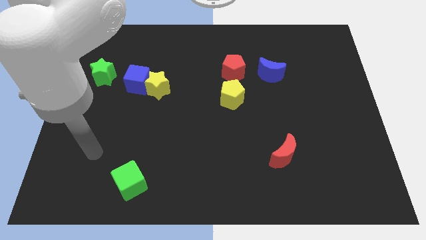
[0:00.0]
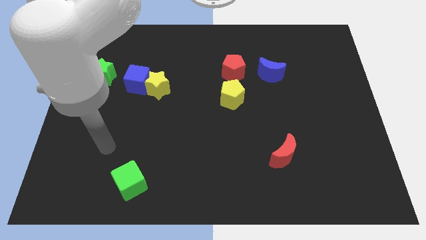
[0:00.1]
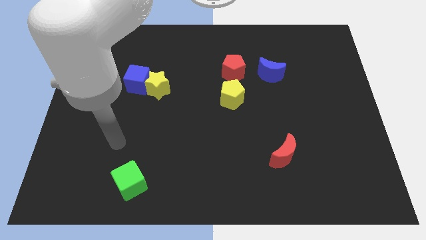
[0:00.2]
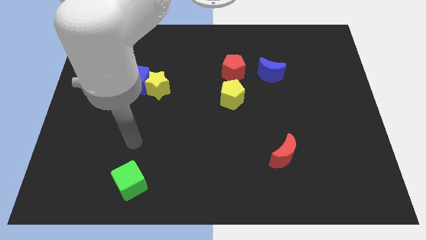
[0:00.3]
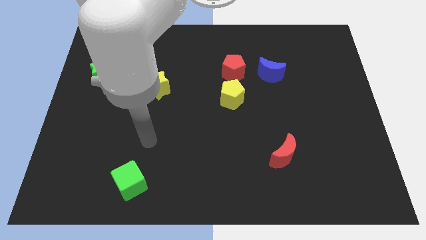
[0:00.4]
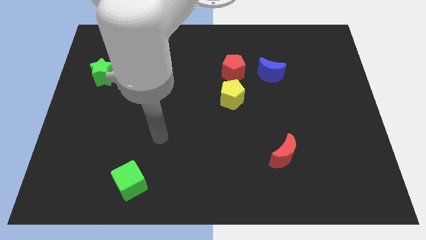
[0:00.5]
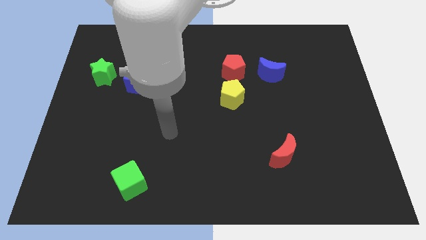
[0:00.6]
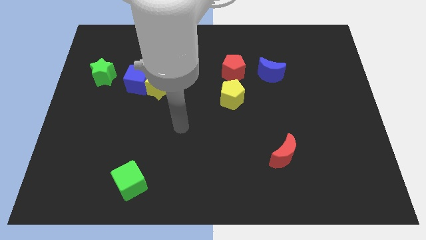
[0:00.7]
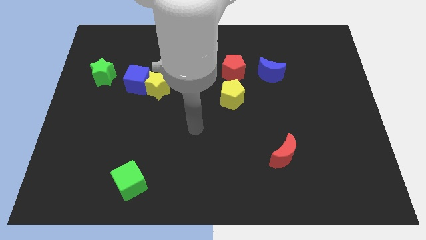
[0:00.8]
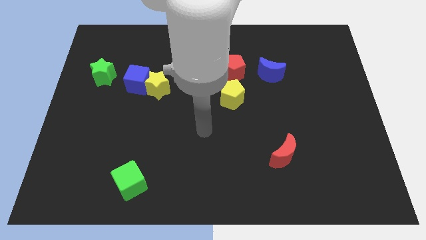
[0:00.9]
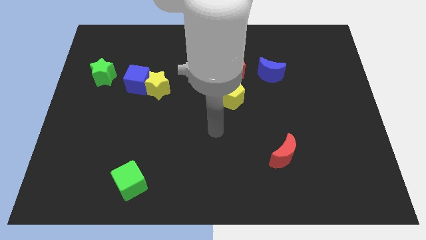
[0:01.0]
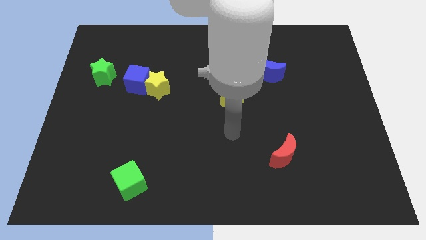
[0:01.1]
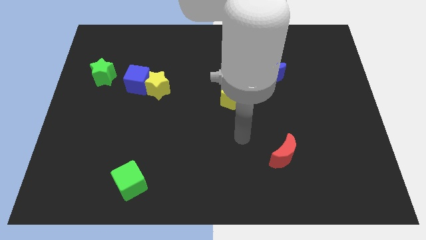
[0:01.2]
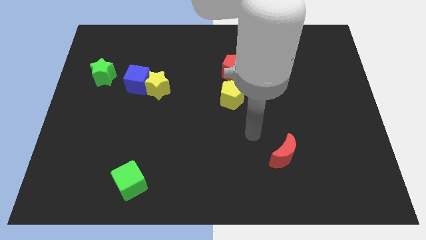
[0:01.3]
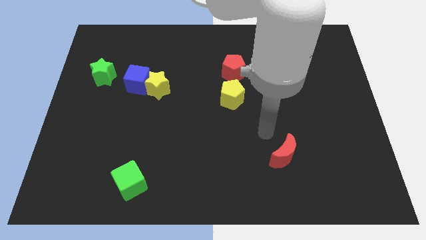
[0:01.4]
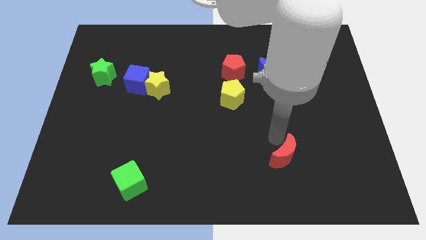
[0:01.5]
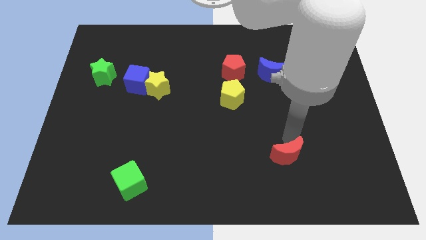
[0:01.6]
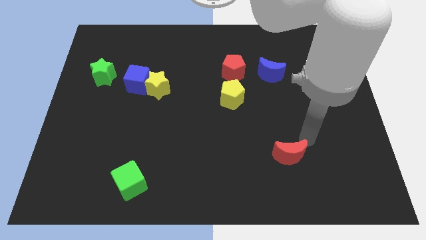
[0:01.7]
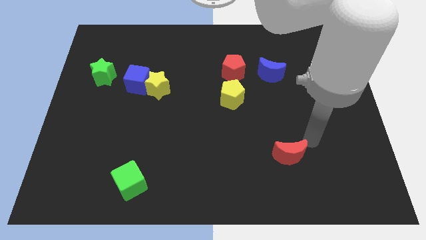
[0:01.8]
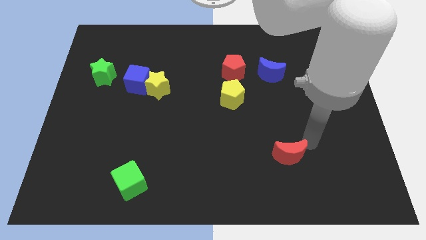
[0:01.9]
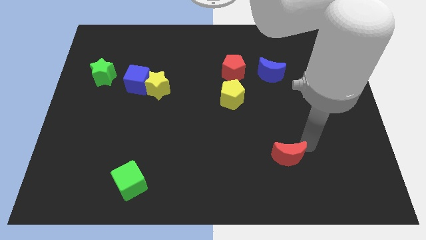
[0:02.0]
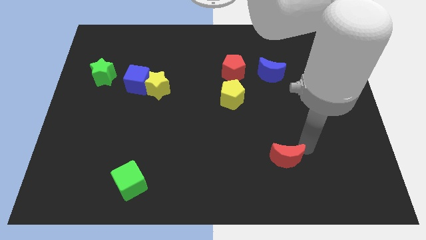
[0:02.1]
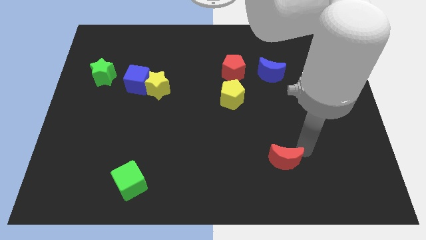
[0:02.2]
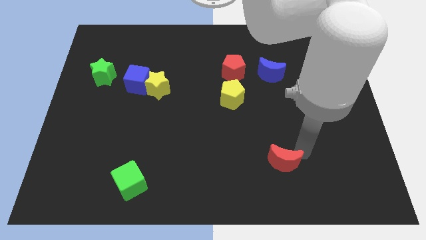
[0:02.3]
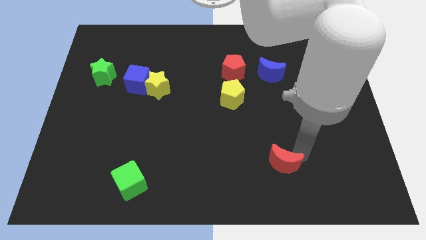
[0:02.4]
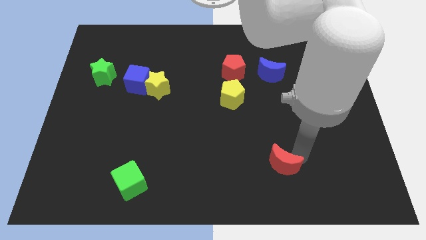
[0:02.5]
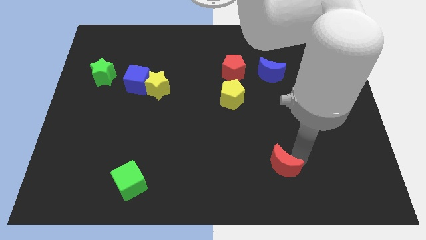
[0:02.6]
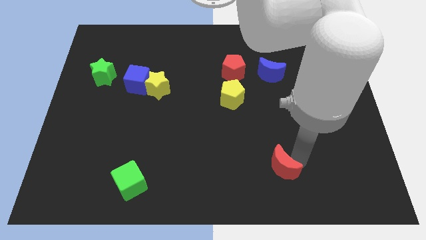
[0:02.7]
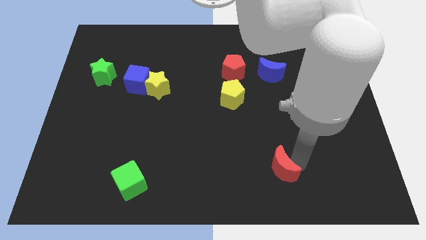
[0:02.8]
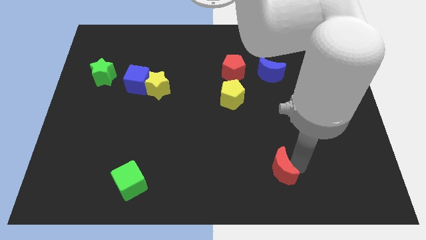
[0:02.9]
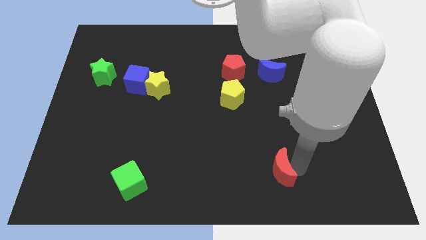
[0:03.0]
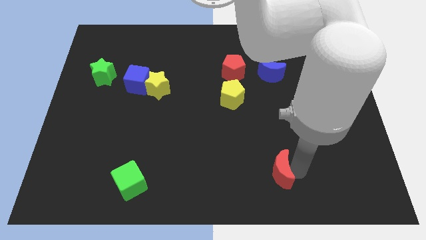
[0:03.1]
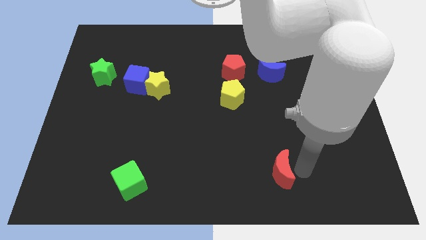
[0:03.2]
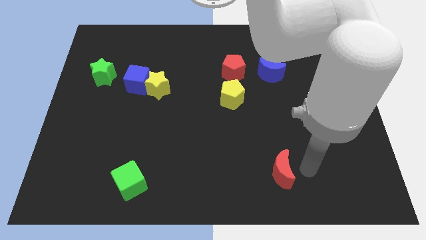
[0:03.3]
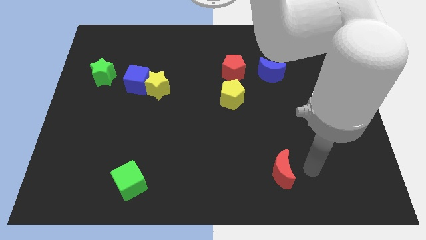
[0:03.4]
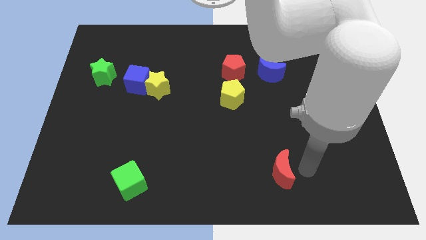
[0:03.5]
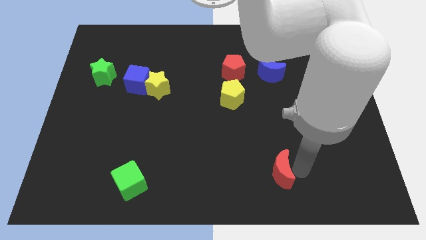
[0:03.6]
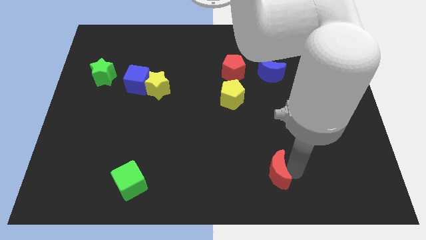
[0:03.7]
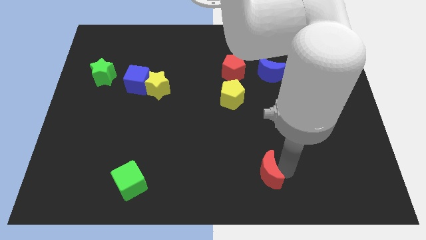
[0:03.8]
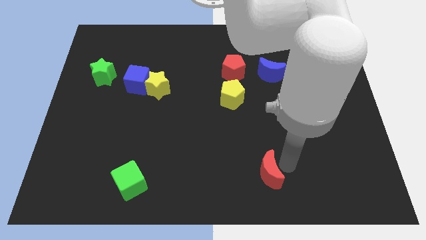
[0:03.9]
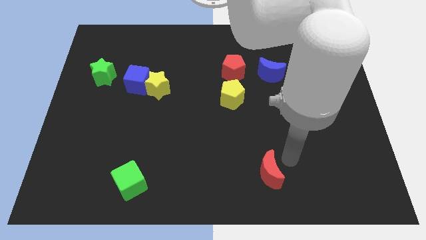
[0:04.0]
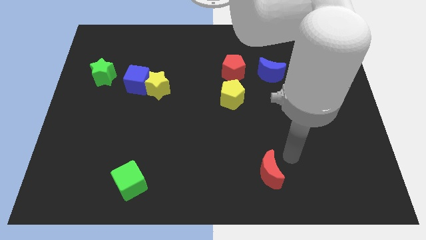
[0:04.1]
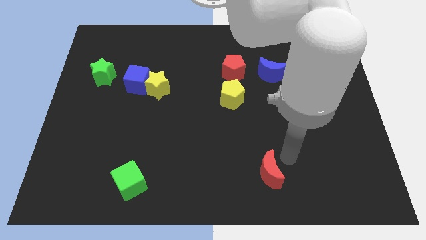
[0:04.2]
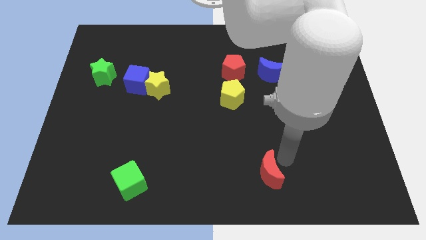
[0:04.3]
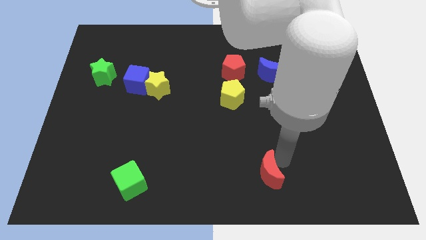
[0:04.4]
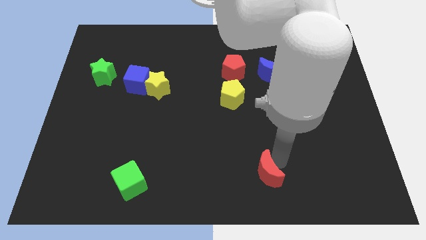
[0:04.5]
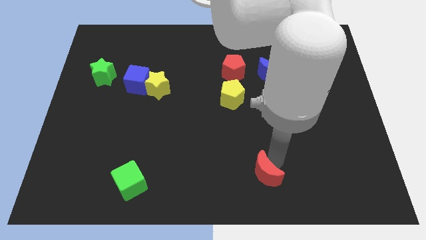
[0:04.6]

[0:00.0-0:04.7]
slide the red moon to the bottom side

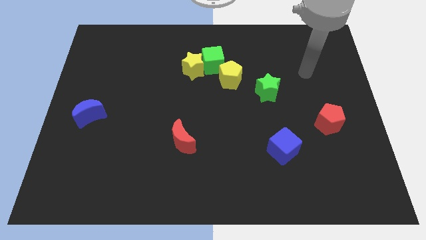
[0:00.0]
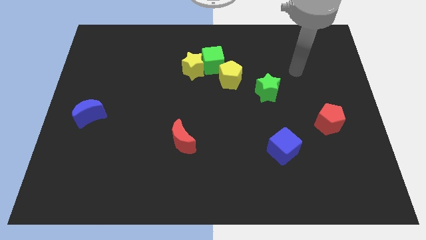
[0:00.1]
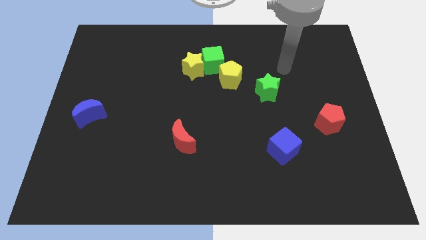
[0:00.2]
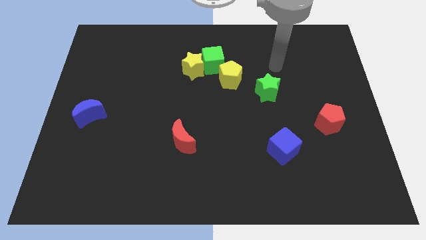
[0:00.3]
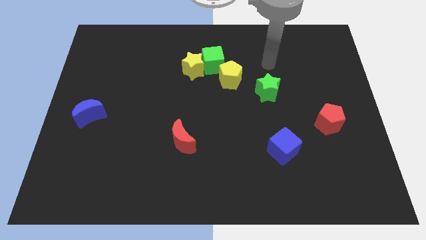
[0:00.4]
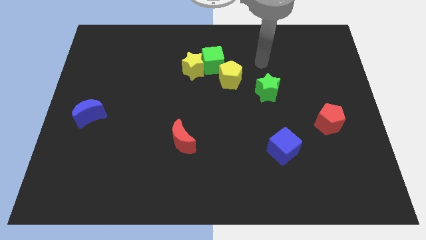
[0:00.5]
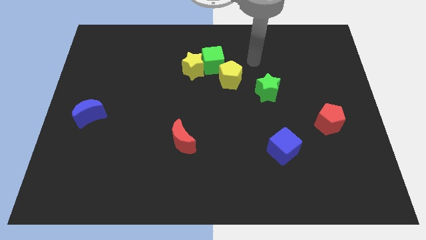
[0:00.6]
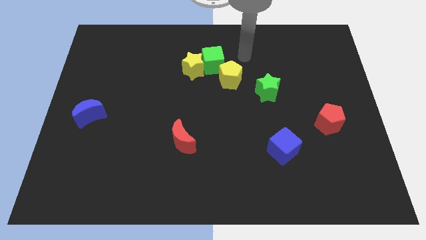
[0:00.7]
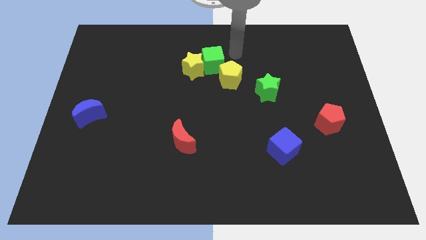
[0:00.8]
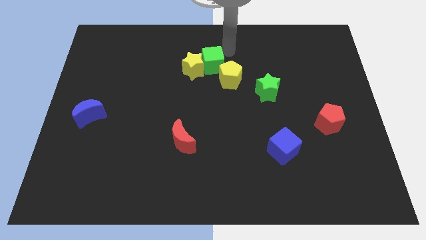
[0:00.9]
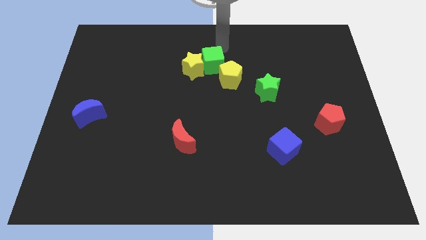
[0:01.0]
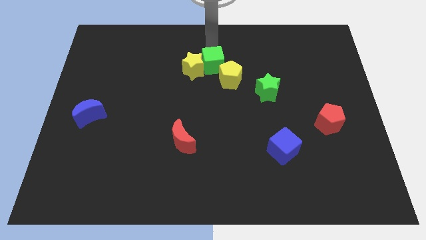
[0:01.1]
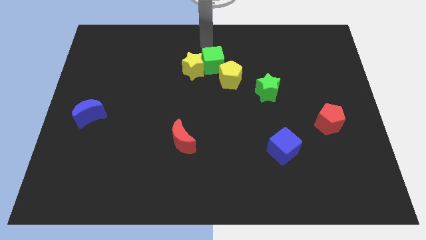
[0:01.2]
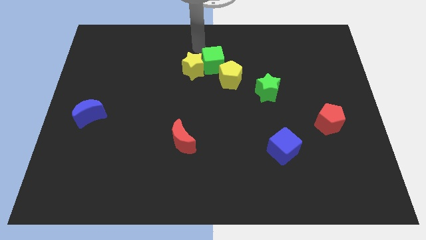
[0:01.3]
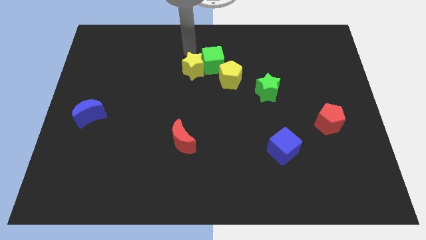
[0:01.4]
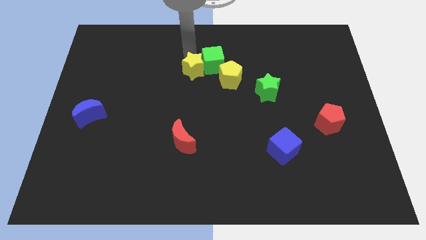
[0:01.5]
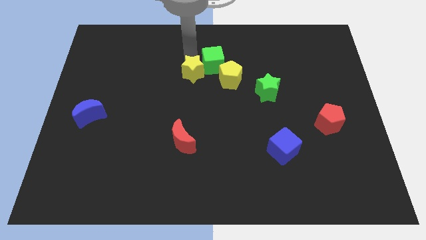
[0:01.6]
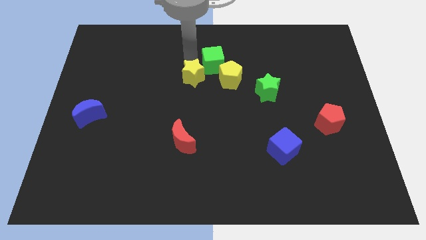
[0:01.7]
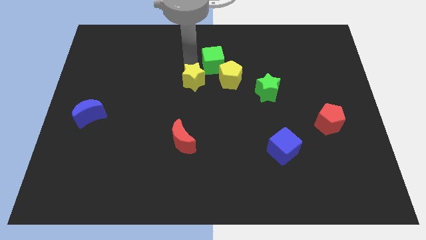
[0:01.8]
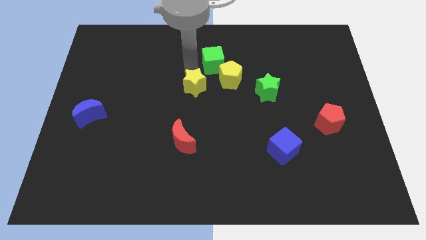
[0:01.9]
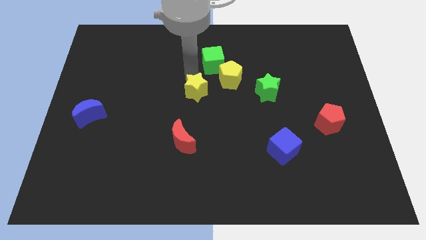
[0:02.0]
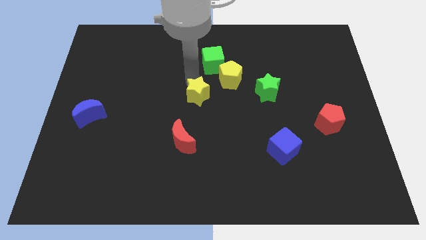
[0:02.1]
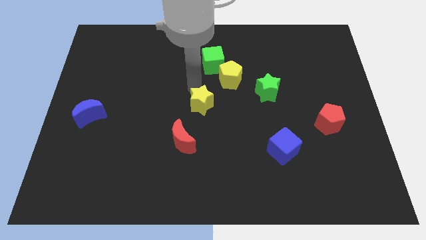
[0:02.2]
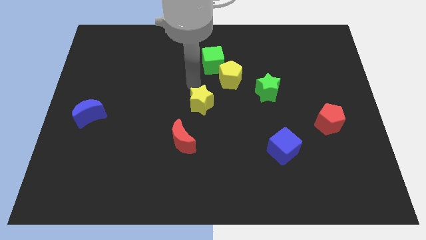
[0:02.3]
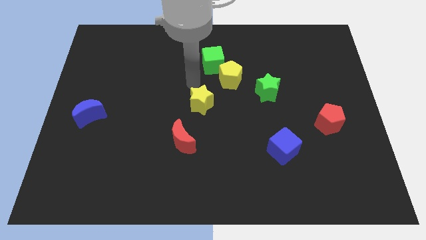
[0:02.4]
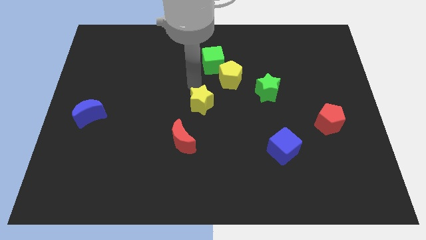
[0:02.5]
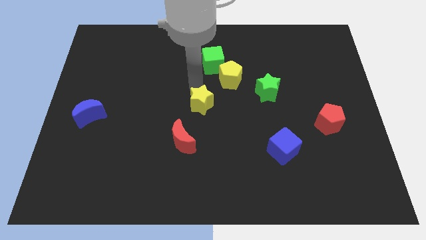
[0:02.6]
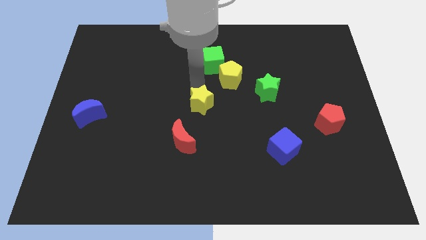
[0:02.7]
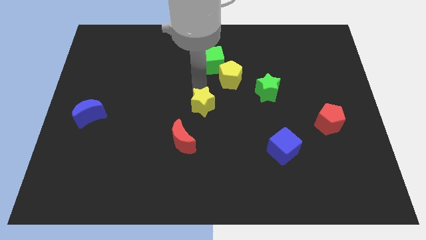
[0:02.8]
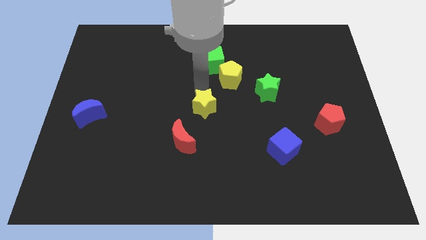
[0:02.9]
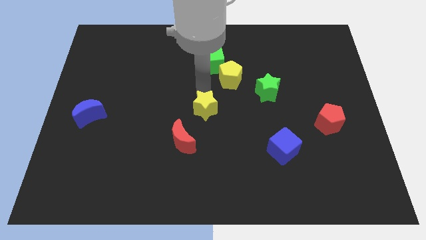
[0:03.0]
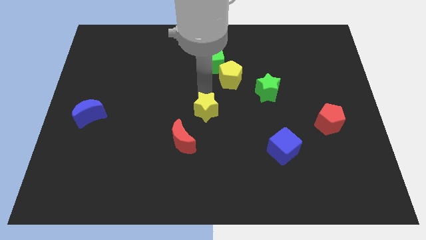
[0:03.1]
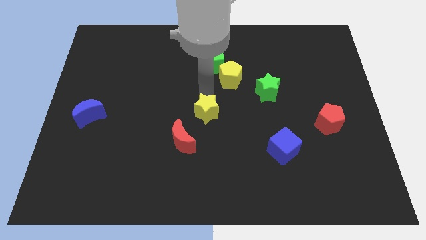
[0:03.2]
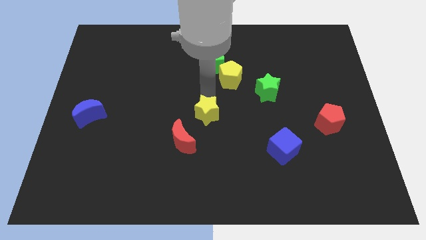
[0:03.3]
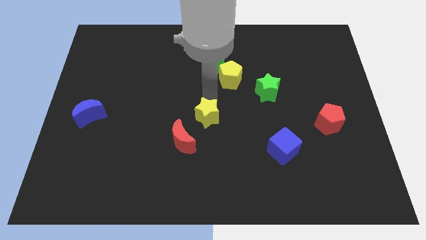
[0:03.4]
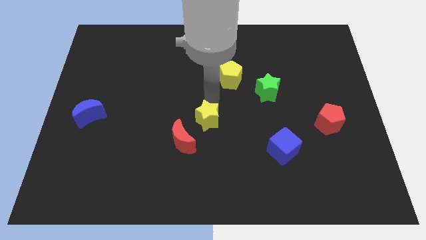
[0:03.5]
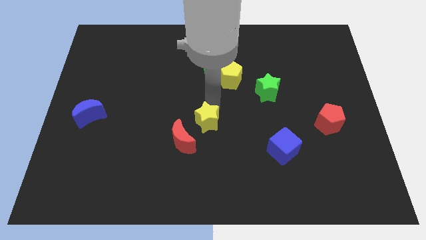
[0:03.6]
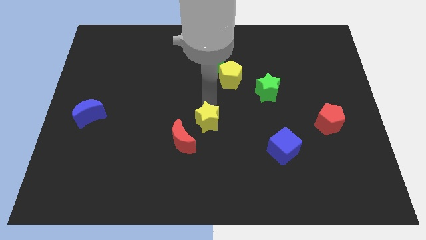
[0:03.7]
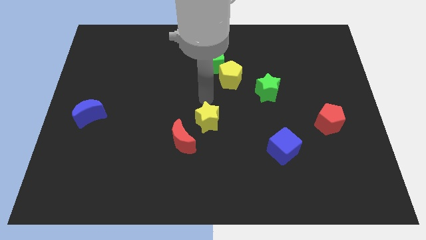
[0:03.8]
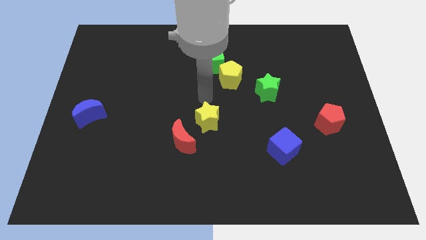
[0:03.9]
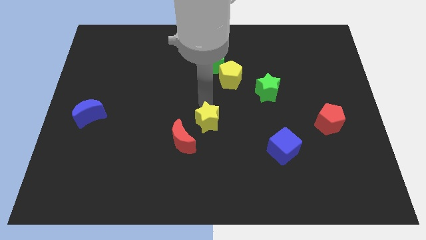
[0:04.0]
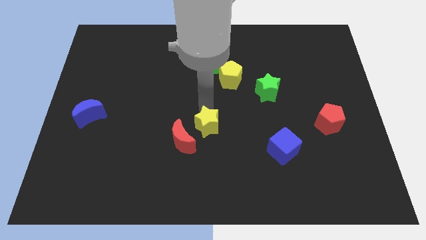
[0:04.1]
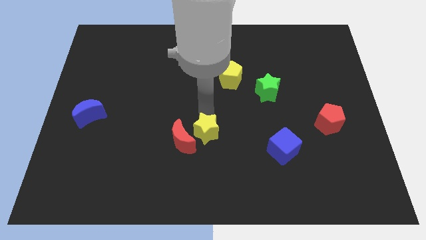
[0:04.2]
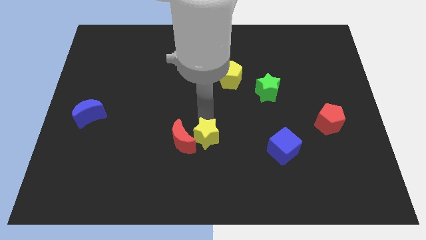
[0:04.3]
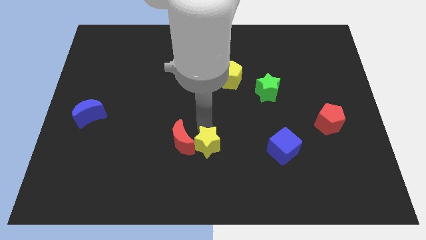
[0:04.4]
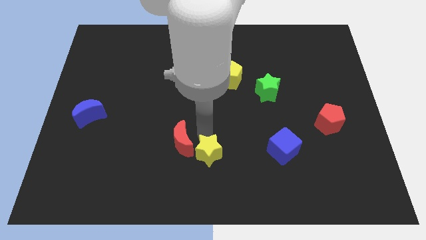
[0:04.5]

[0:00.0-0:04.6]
put the yellow star to the bottom
